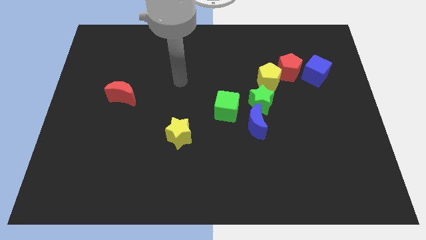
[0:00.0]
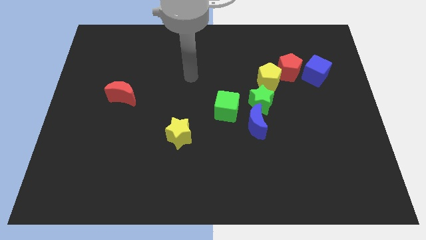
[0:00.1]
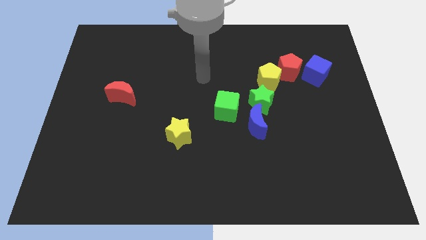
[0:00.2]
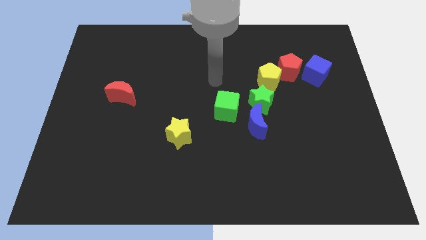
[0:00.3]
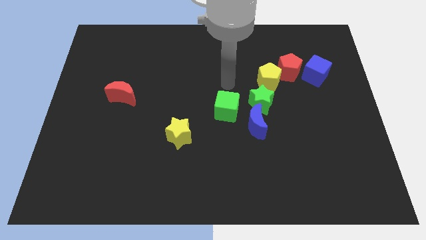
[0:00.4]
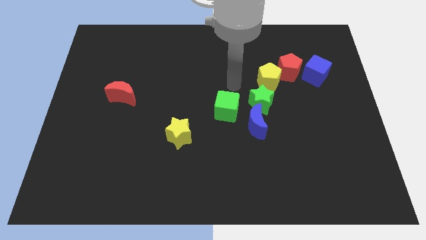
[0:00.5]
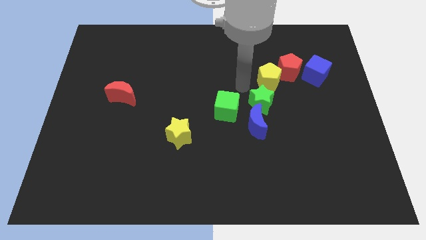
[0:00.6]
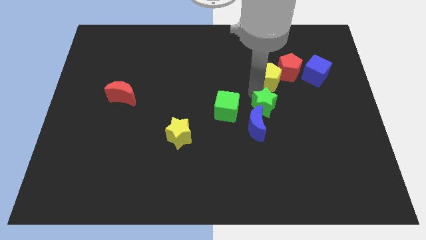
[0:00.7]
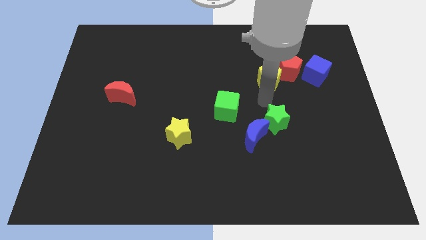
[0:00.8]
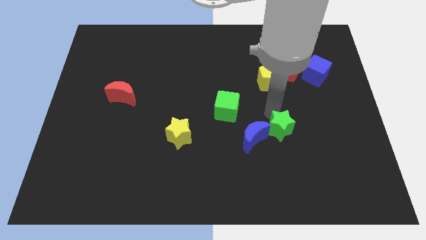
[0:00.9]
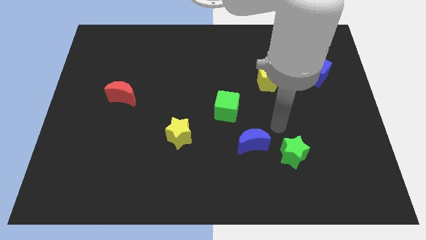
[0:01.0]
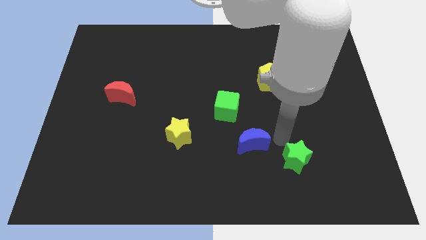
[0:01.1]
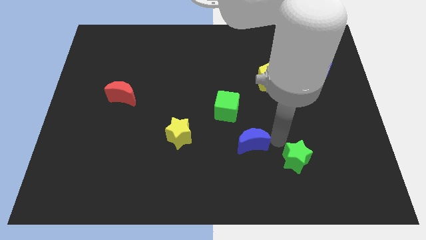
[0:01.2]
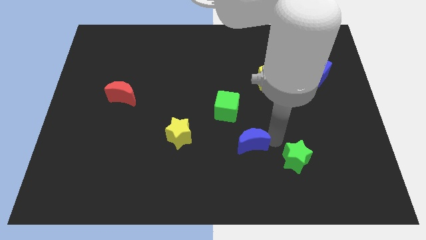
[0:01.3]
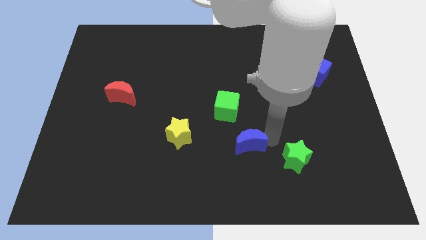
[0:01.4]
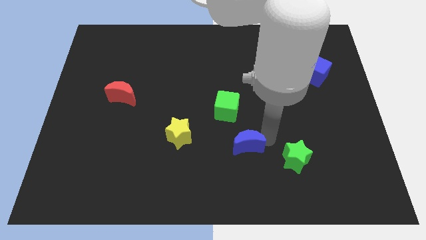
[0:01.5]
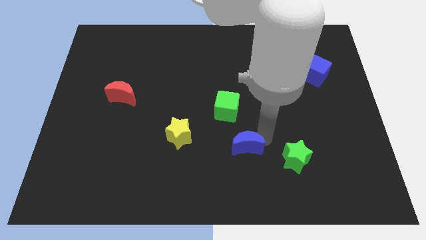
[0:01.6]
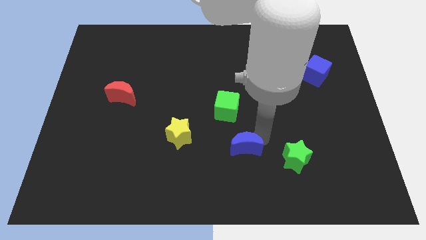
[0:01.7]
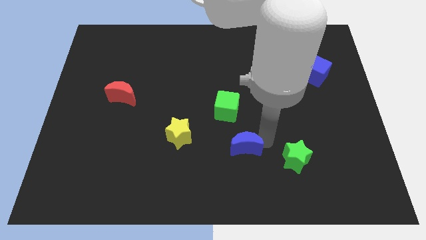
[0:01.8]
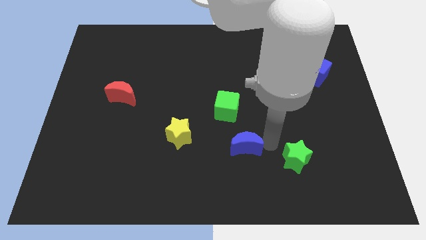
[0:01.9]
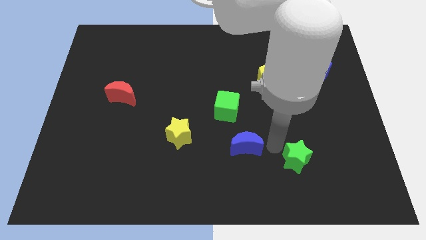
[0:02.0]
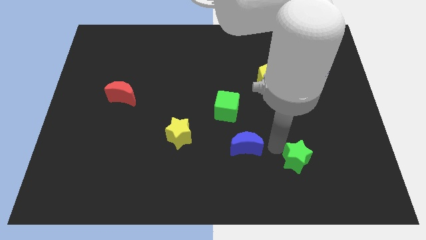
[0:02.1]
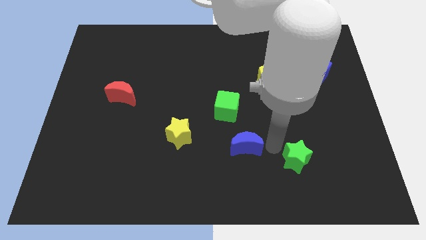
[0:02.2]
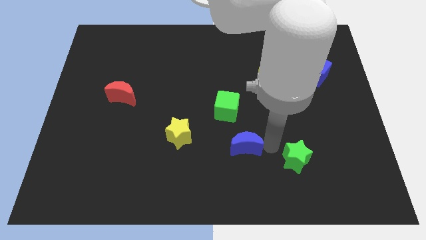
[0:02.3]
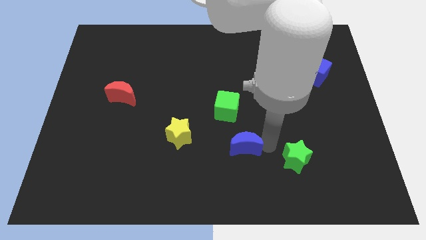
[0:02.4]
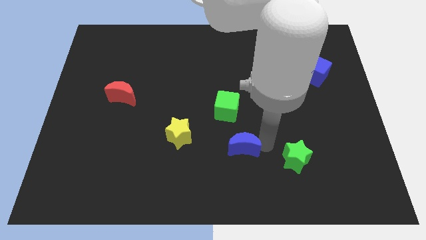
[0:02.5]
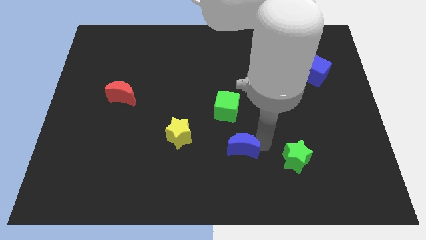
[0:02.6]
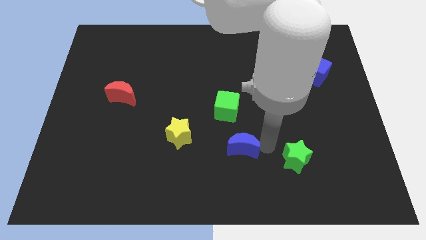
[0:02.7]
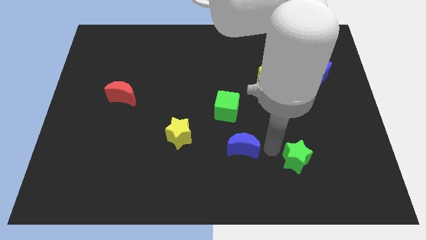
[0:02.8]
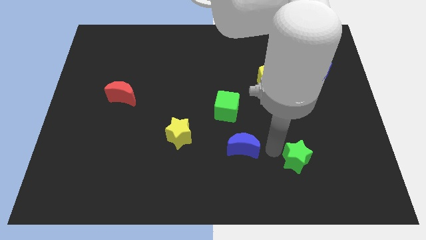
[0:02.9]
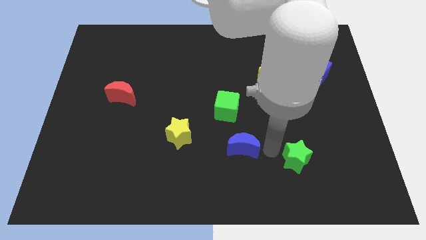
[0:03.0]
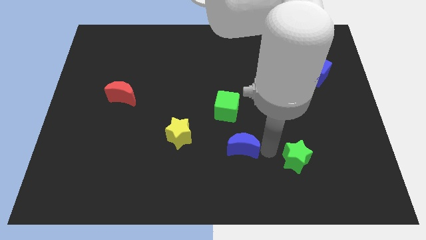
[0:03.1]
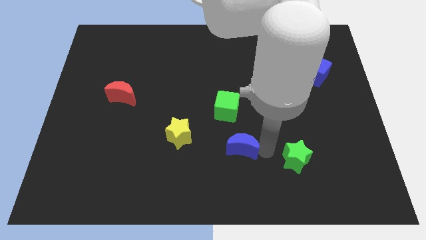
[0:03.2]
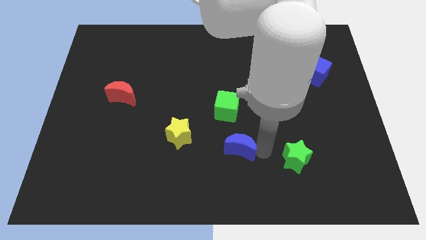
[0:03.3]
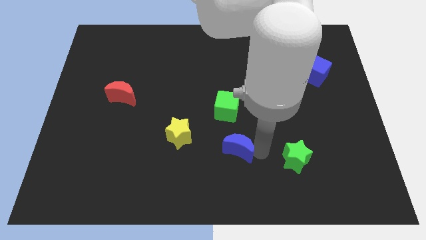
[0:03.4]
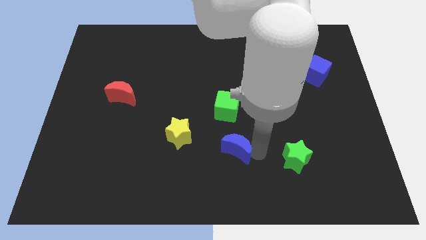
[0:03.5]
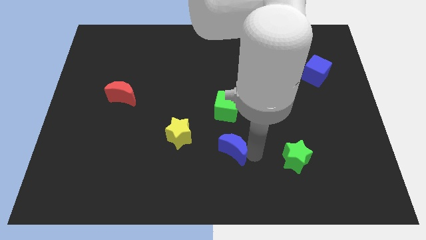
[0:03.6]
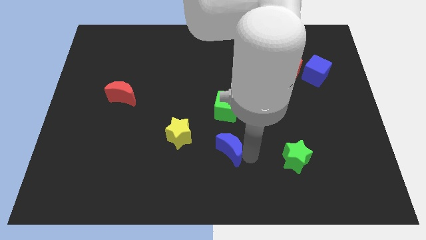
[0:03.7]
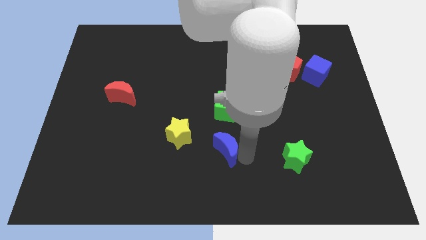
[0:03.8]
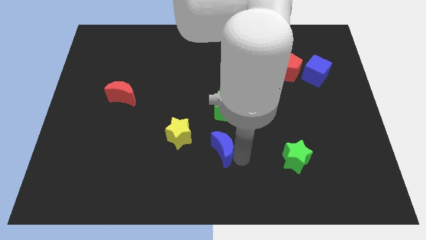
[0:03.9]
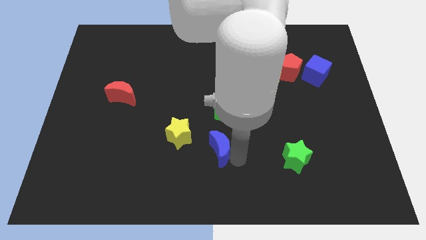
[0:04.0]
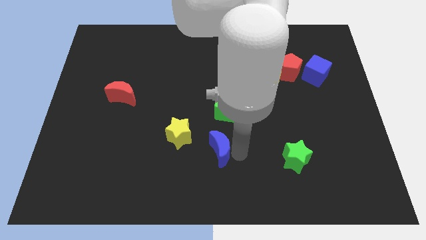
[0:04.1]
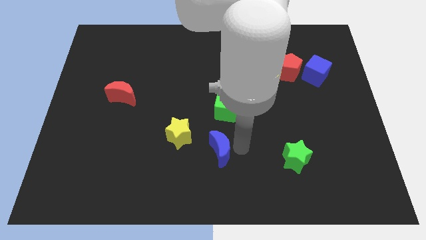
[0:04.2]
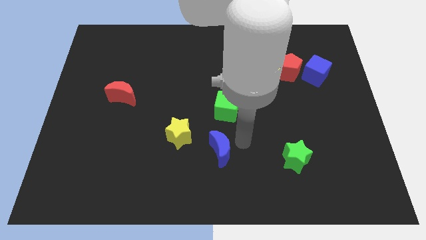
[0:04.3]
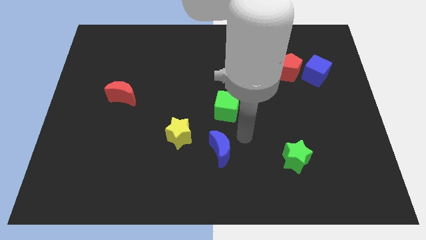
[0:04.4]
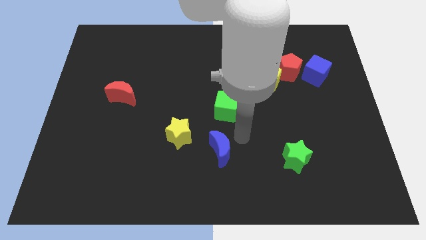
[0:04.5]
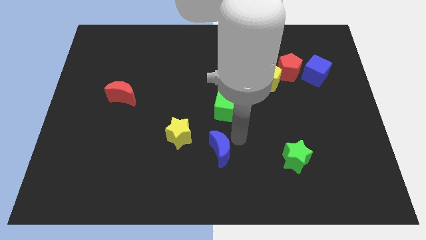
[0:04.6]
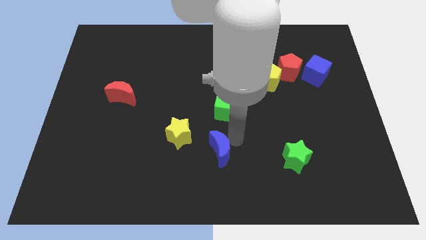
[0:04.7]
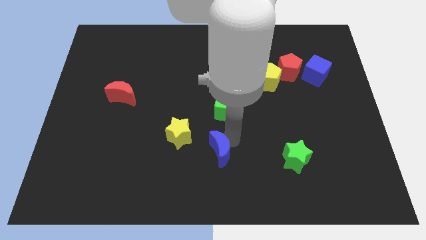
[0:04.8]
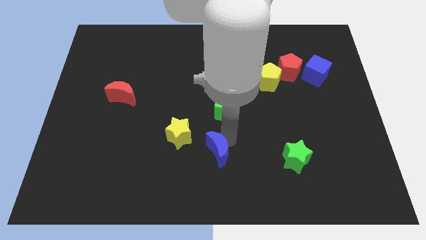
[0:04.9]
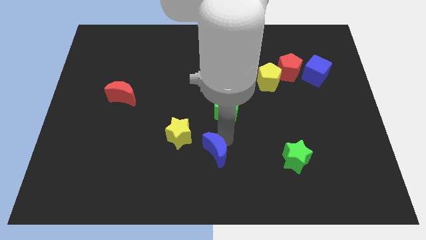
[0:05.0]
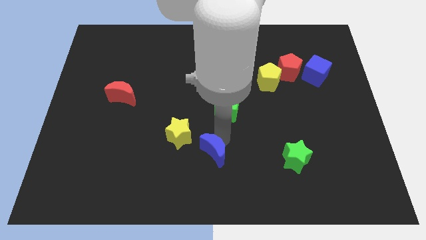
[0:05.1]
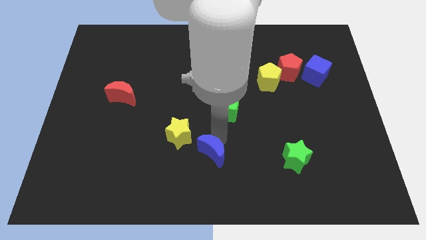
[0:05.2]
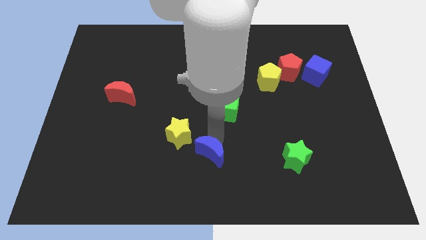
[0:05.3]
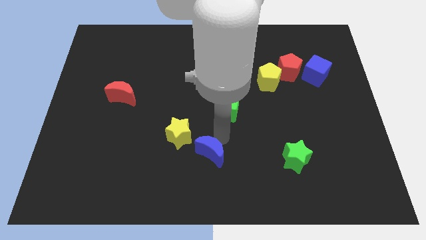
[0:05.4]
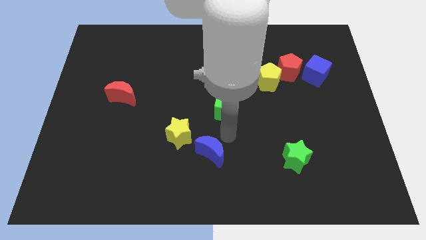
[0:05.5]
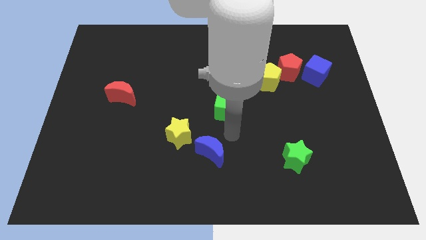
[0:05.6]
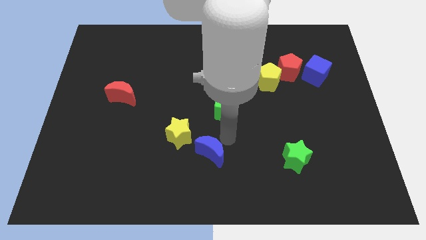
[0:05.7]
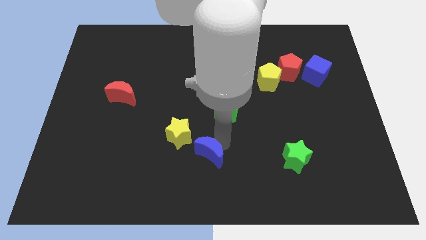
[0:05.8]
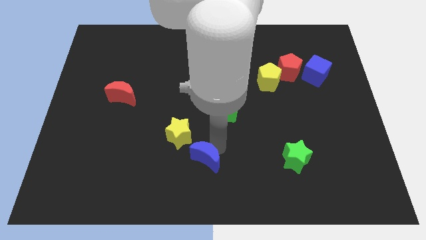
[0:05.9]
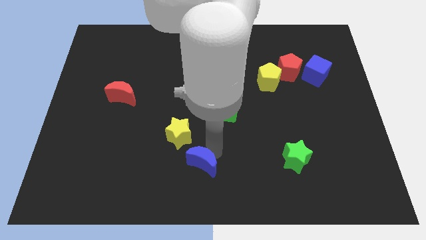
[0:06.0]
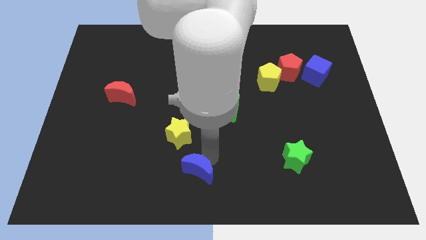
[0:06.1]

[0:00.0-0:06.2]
slide the blue moon to the bottom side of the yellow star
